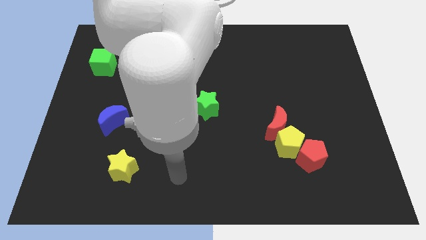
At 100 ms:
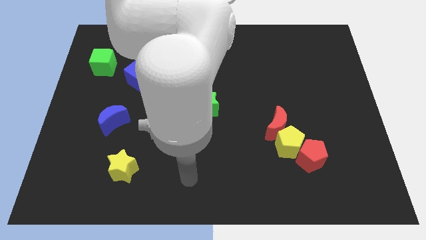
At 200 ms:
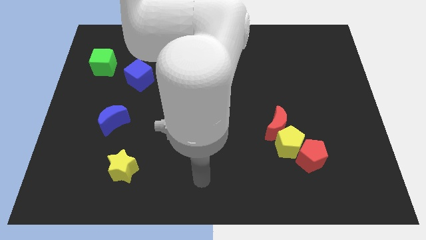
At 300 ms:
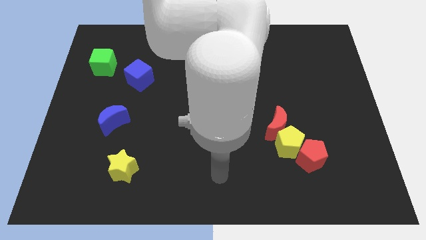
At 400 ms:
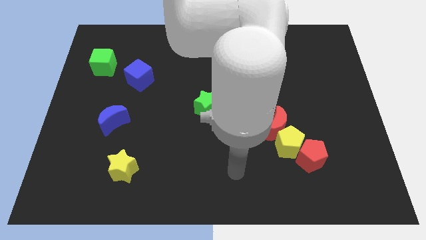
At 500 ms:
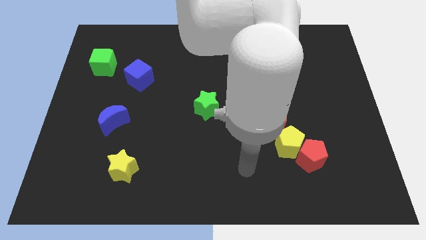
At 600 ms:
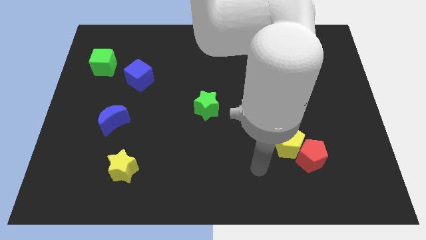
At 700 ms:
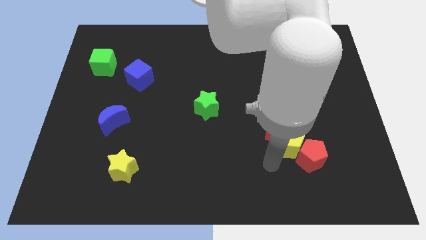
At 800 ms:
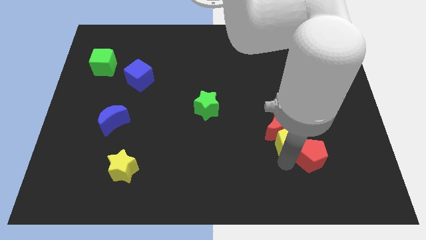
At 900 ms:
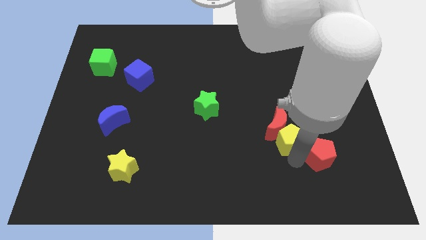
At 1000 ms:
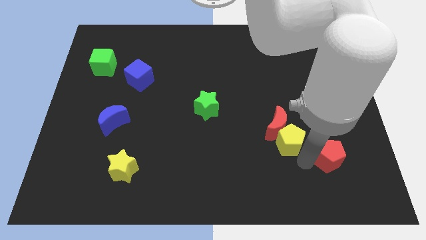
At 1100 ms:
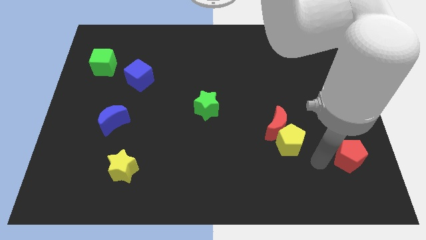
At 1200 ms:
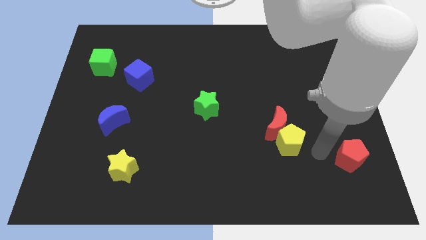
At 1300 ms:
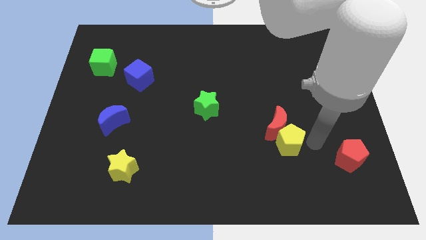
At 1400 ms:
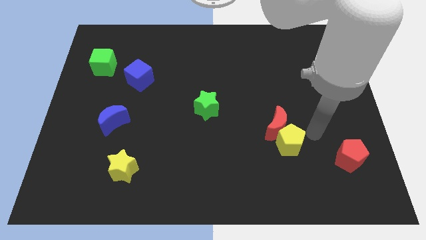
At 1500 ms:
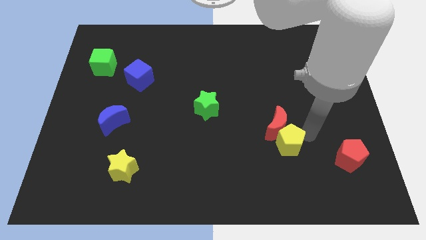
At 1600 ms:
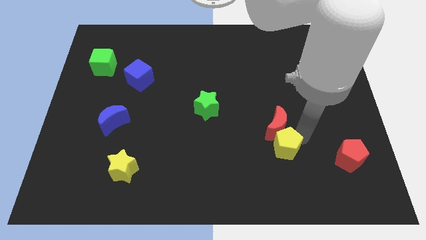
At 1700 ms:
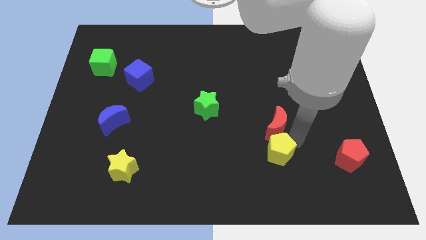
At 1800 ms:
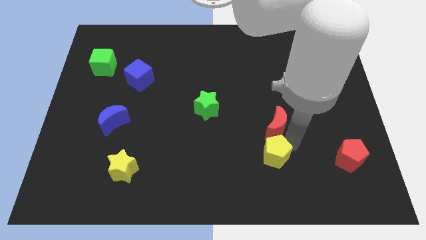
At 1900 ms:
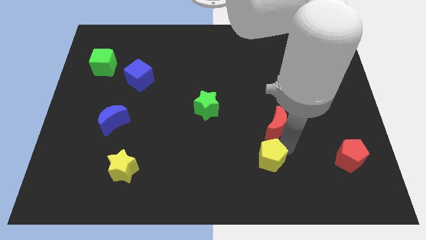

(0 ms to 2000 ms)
separate the yellow pentagon from the red moon and red pentagon

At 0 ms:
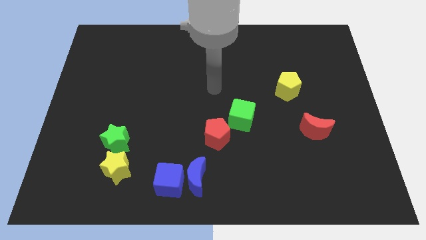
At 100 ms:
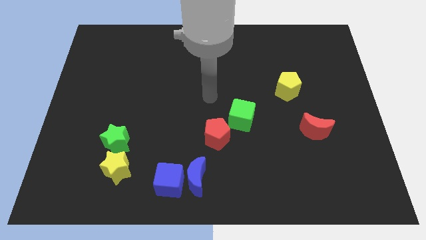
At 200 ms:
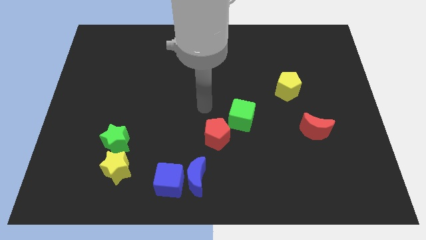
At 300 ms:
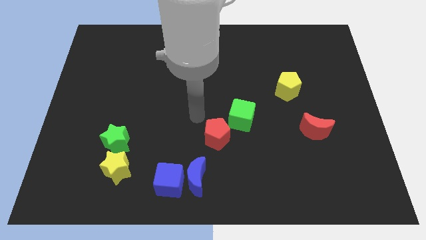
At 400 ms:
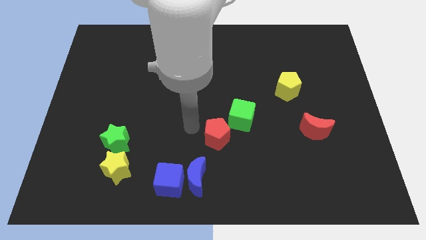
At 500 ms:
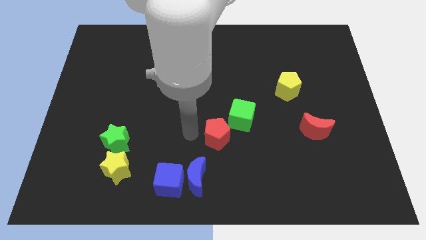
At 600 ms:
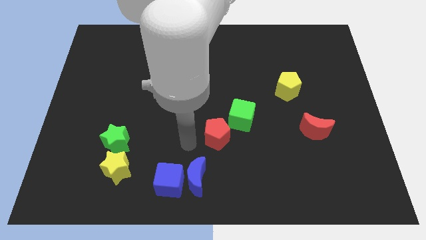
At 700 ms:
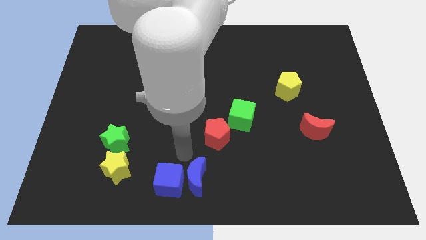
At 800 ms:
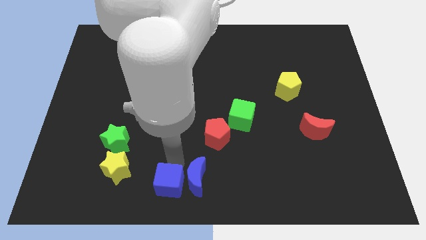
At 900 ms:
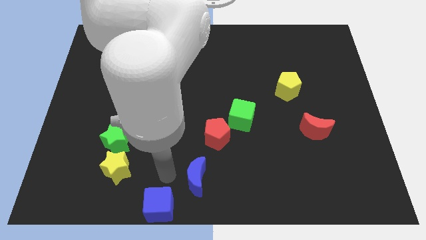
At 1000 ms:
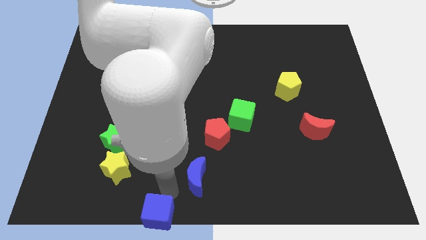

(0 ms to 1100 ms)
separate the blue moon from the blue cube

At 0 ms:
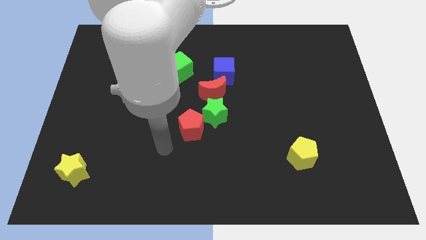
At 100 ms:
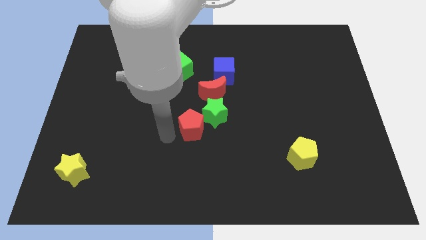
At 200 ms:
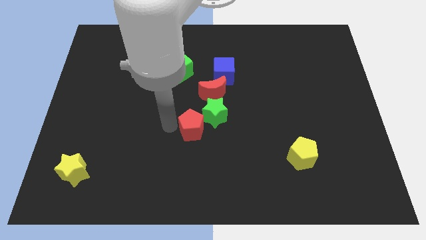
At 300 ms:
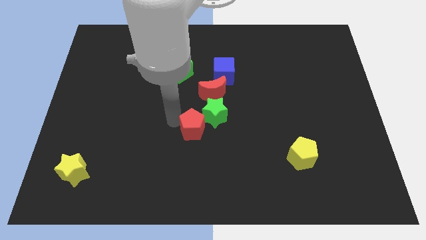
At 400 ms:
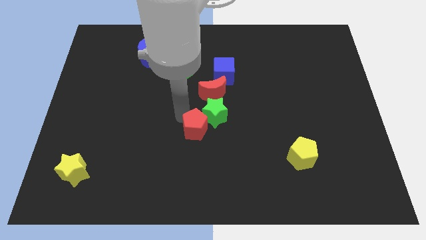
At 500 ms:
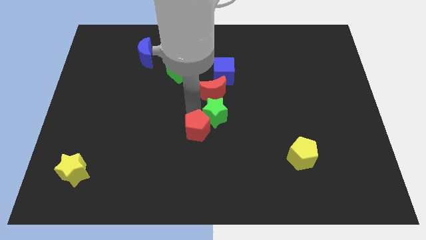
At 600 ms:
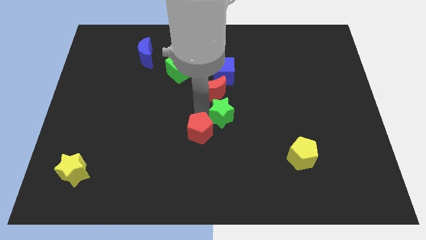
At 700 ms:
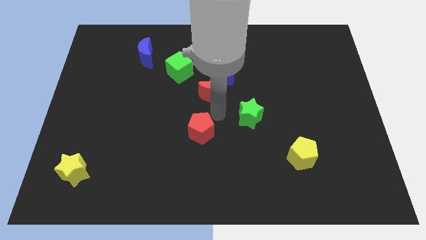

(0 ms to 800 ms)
pull the red pentagon apart from the green star

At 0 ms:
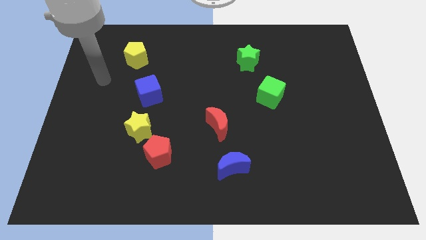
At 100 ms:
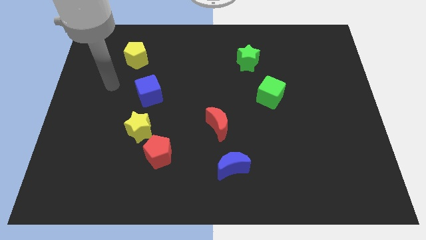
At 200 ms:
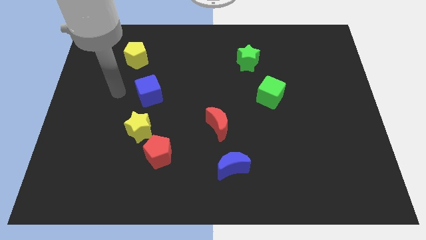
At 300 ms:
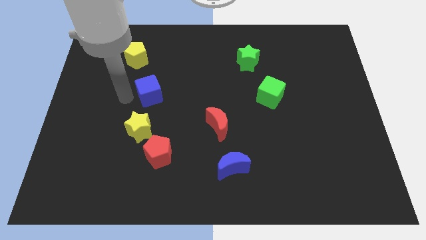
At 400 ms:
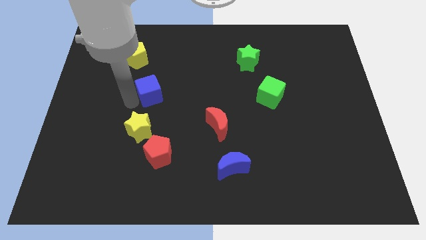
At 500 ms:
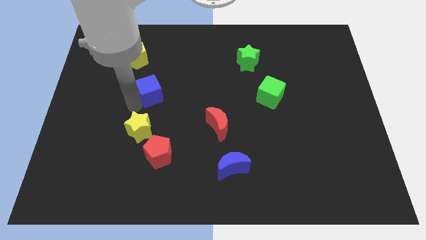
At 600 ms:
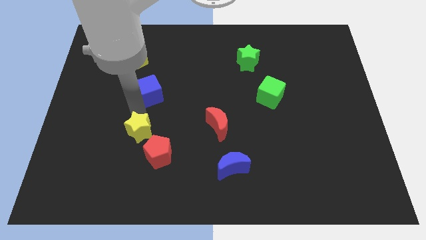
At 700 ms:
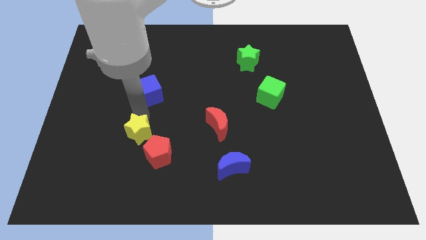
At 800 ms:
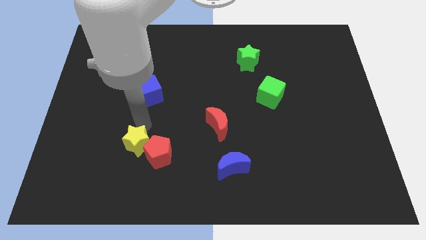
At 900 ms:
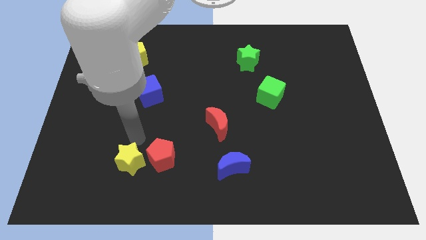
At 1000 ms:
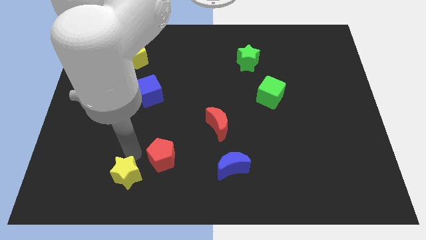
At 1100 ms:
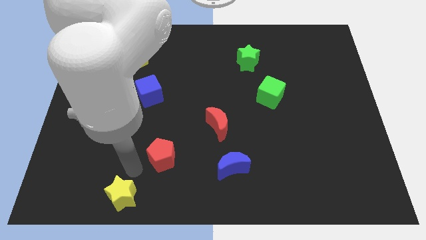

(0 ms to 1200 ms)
pull the red pentagon apart from the yellow star

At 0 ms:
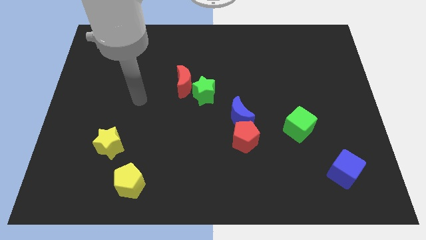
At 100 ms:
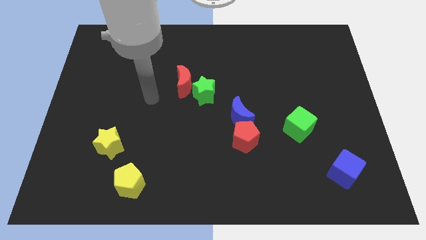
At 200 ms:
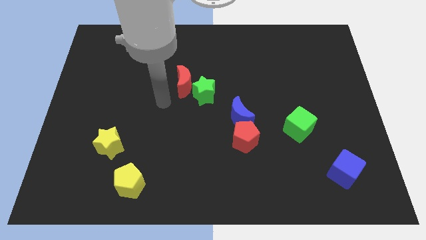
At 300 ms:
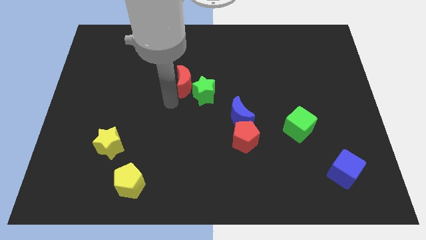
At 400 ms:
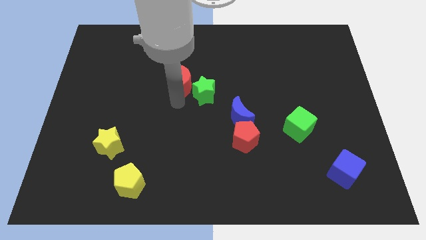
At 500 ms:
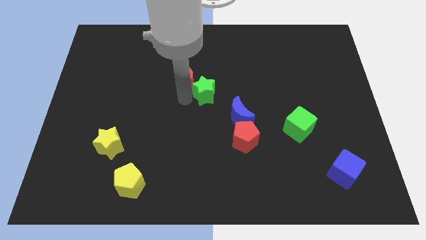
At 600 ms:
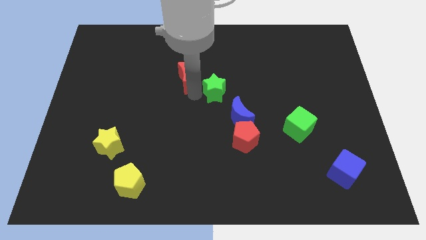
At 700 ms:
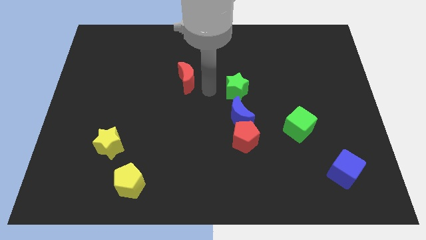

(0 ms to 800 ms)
move the red moon away from the green star

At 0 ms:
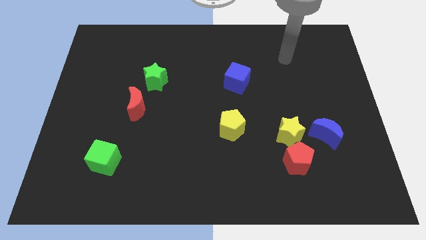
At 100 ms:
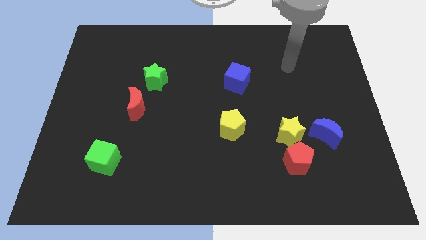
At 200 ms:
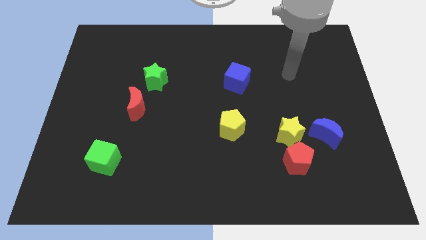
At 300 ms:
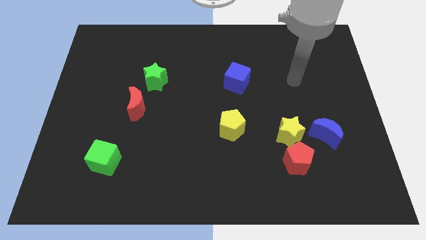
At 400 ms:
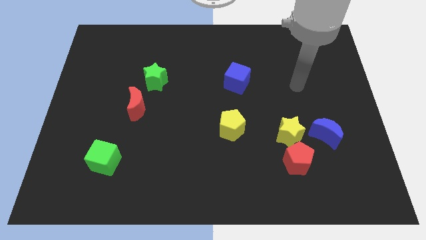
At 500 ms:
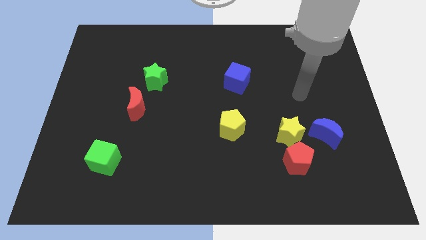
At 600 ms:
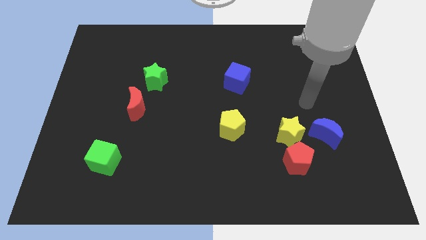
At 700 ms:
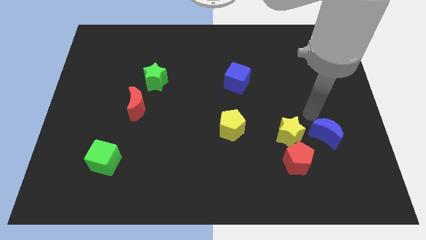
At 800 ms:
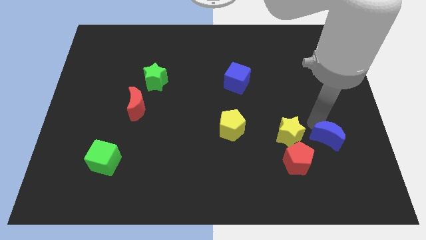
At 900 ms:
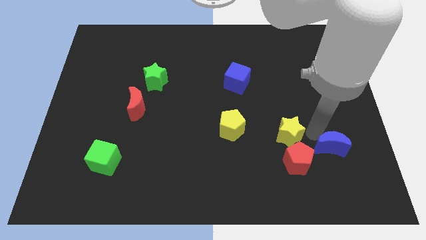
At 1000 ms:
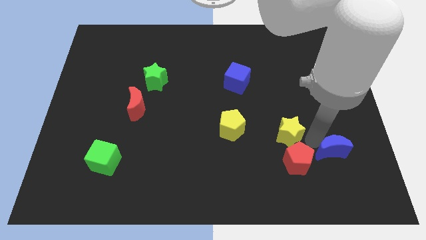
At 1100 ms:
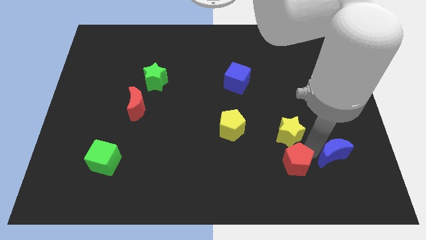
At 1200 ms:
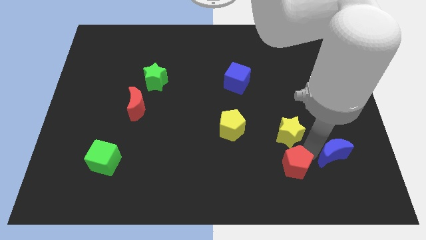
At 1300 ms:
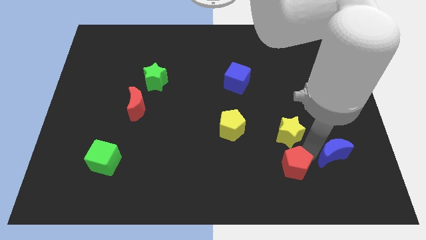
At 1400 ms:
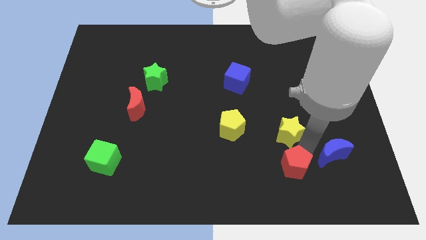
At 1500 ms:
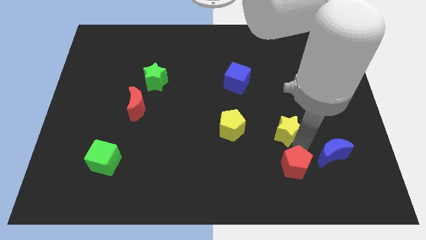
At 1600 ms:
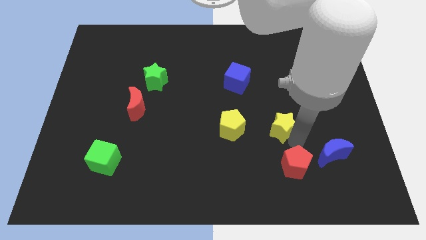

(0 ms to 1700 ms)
separate the yellow star from the red pentagon and blue moon

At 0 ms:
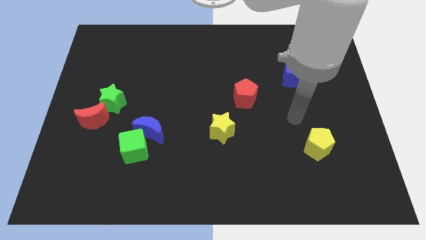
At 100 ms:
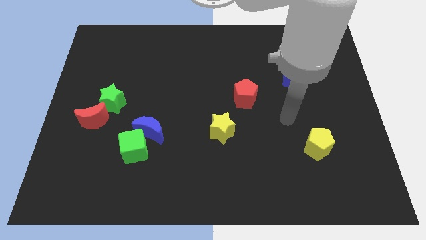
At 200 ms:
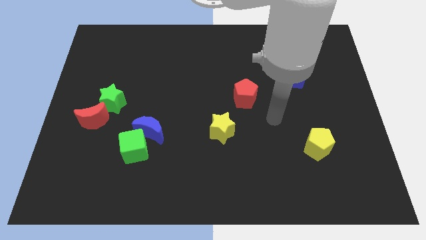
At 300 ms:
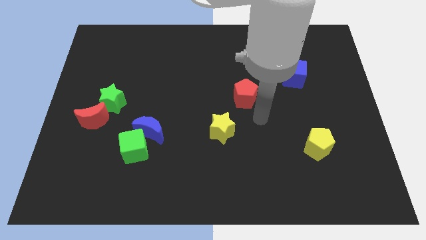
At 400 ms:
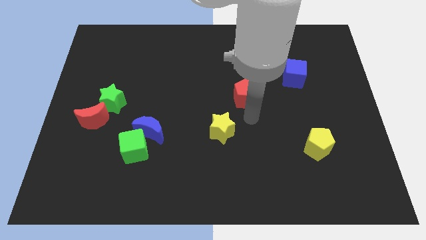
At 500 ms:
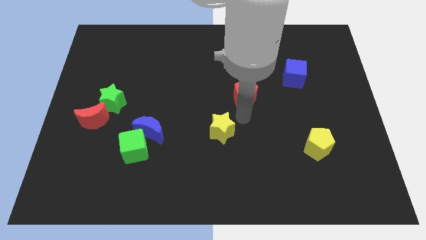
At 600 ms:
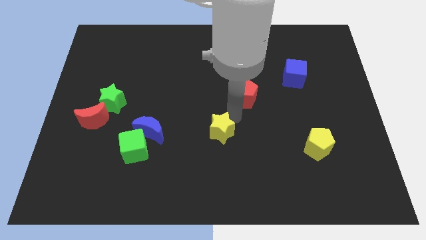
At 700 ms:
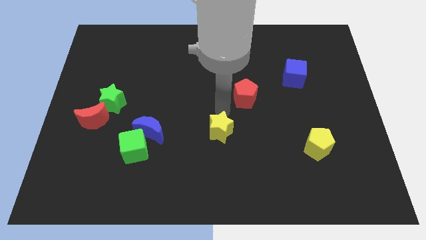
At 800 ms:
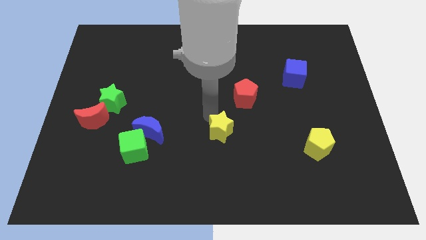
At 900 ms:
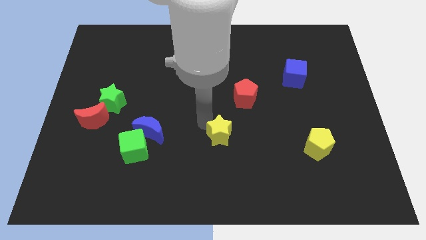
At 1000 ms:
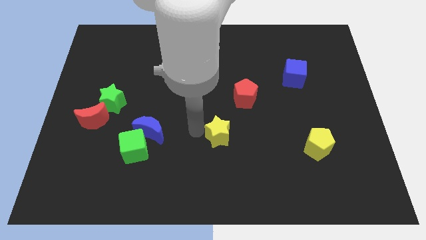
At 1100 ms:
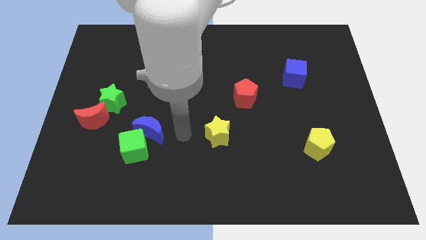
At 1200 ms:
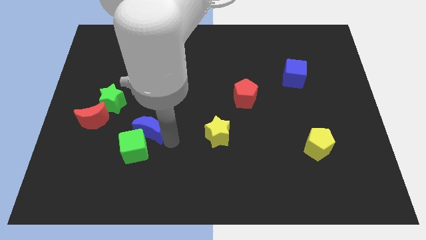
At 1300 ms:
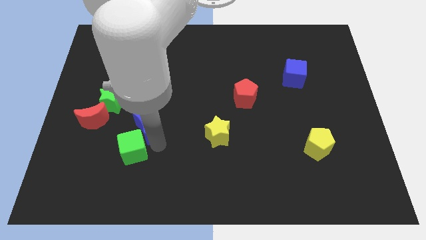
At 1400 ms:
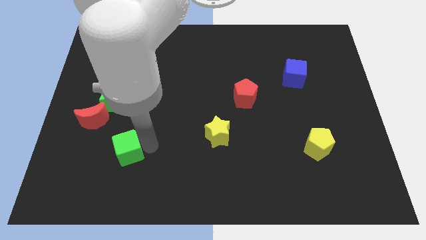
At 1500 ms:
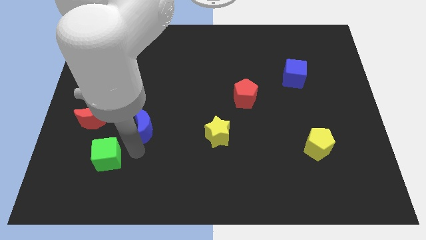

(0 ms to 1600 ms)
separate the blue moon from the green cube

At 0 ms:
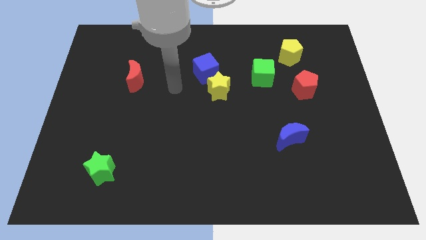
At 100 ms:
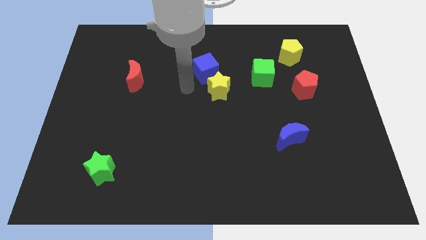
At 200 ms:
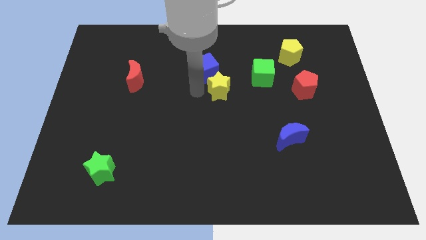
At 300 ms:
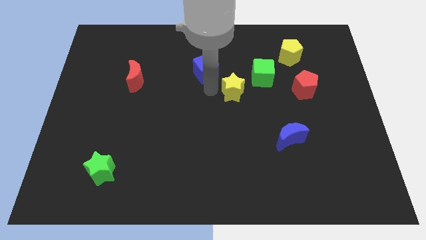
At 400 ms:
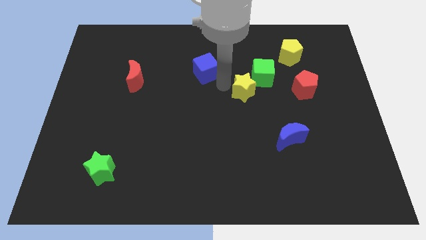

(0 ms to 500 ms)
move the blue cube away from the yellow star
